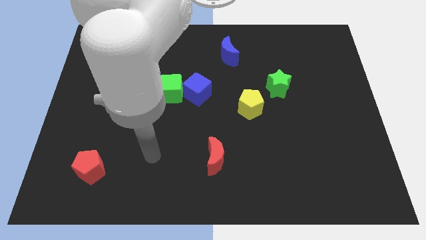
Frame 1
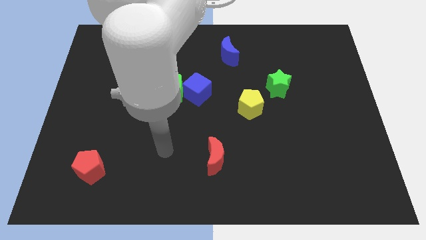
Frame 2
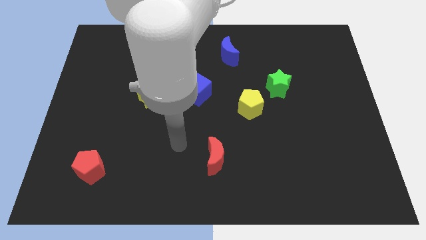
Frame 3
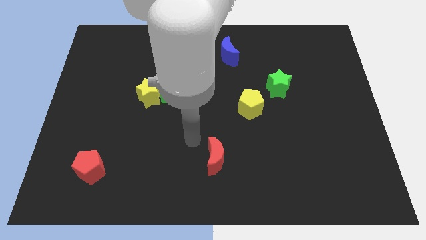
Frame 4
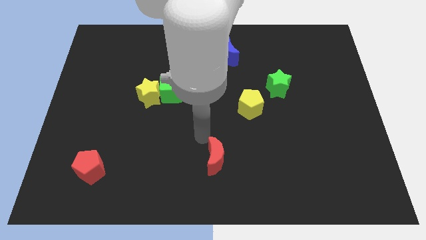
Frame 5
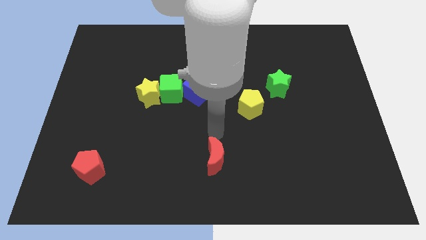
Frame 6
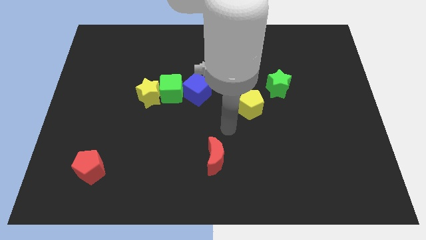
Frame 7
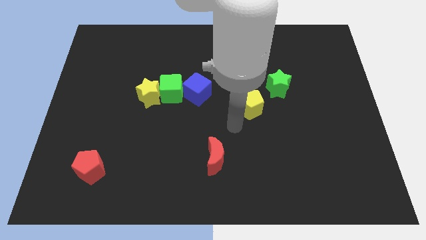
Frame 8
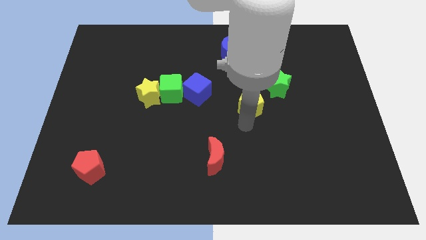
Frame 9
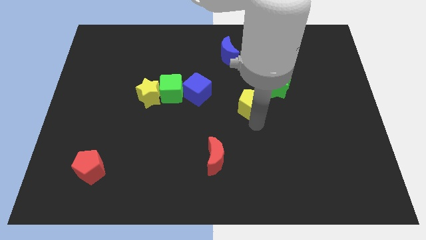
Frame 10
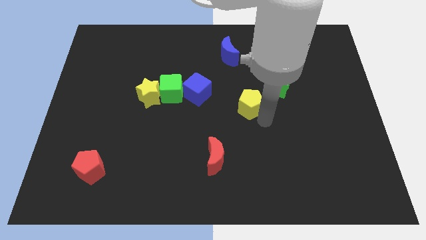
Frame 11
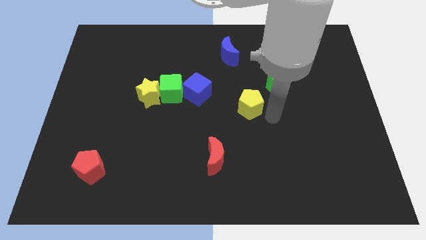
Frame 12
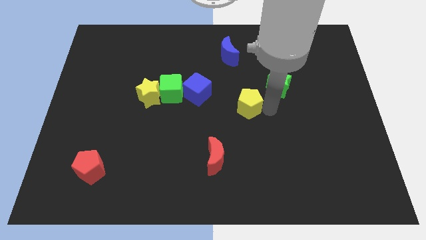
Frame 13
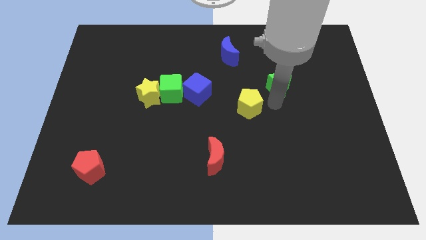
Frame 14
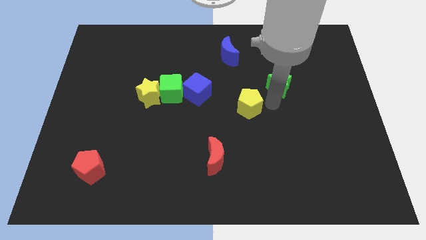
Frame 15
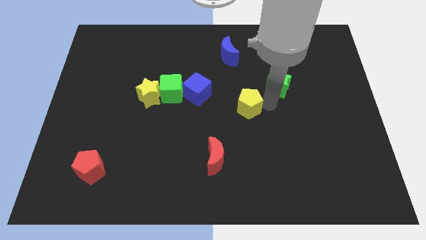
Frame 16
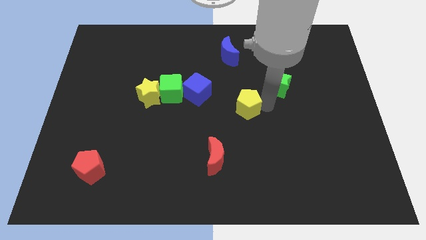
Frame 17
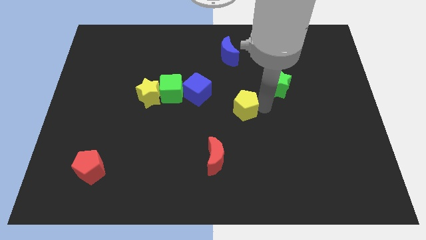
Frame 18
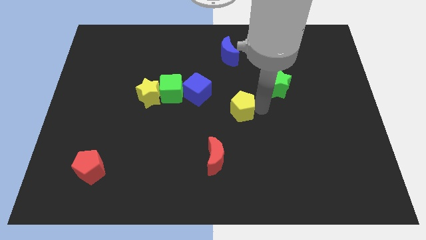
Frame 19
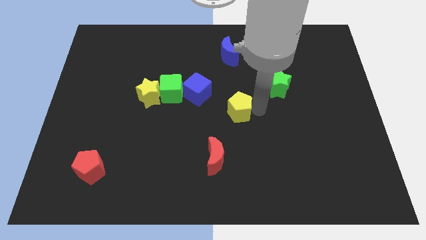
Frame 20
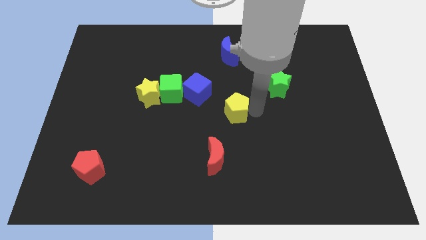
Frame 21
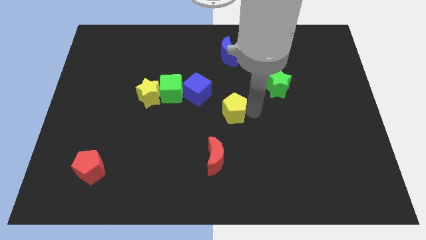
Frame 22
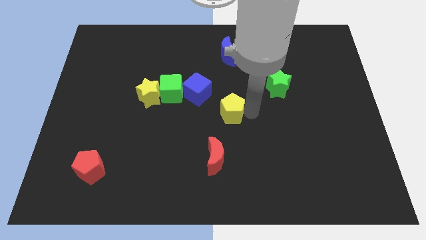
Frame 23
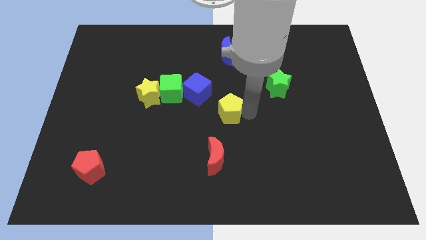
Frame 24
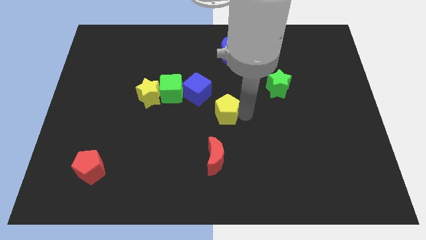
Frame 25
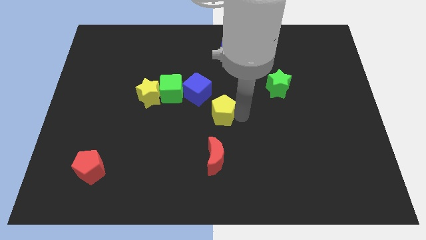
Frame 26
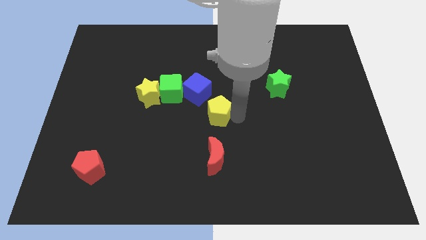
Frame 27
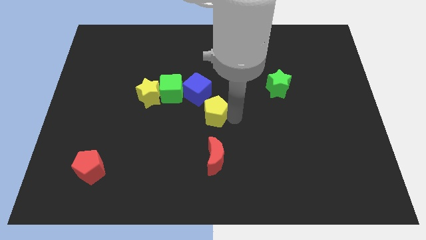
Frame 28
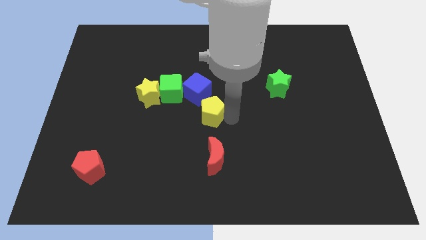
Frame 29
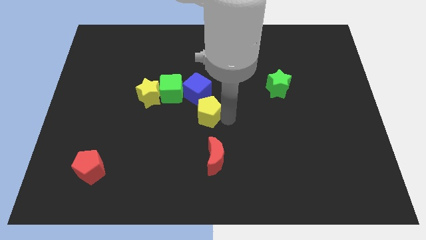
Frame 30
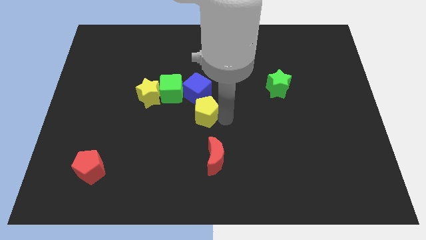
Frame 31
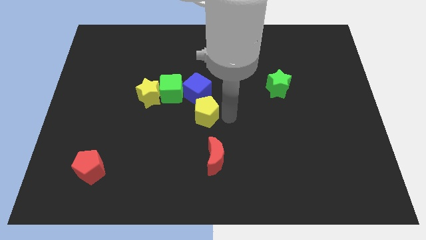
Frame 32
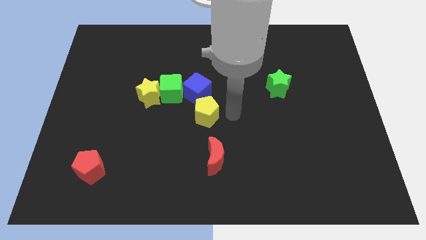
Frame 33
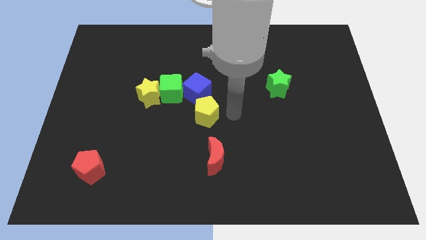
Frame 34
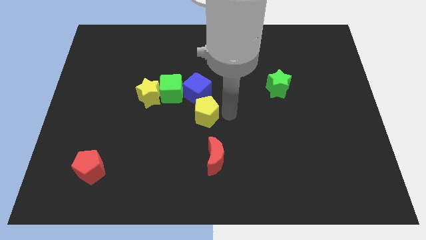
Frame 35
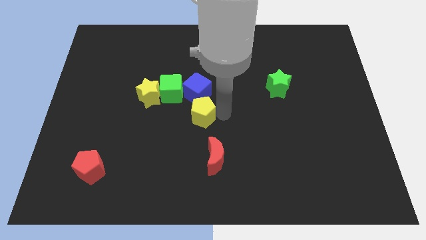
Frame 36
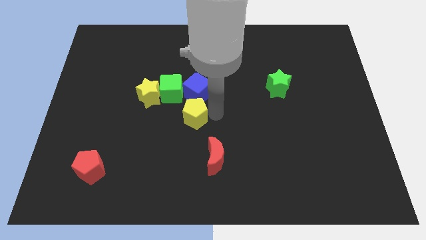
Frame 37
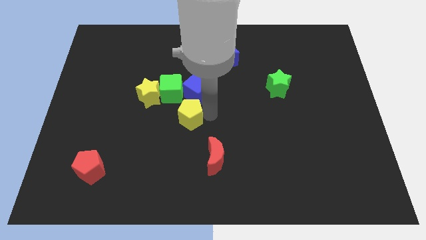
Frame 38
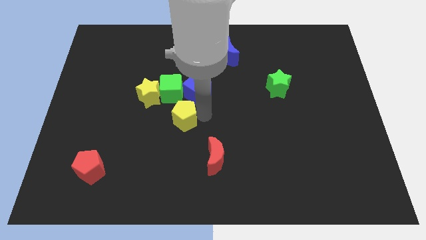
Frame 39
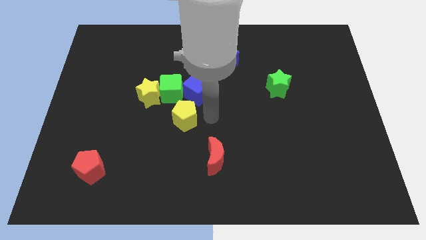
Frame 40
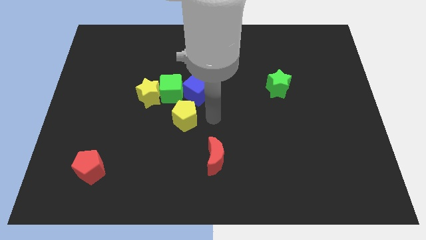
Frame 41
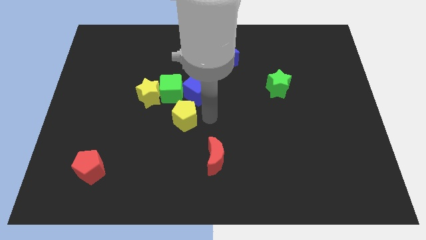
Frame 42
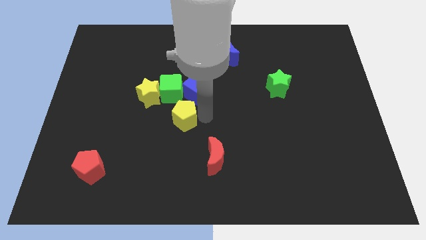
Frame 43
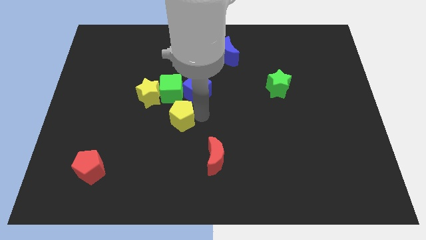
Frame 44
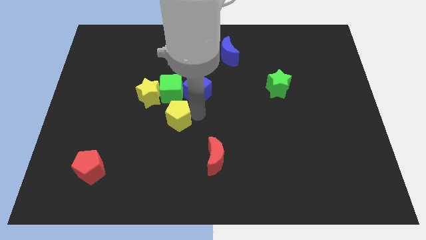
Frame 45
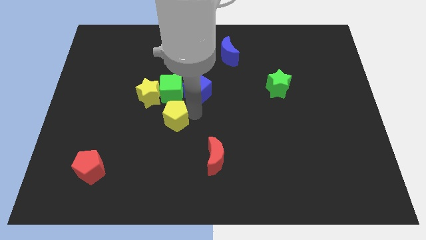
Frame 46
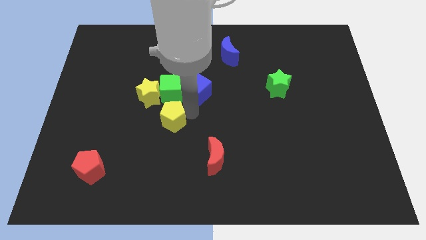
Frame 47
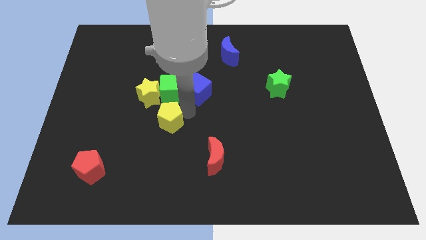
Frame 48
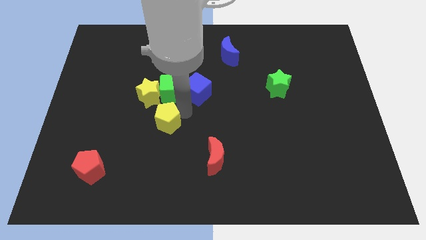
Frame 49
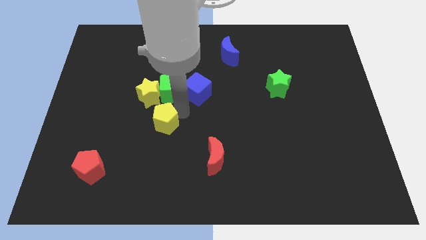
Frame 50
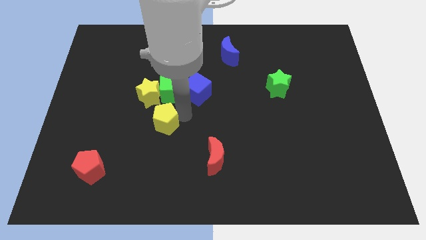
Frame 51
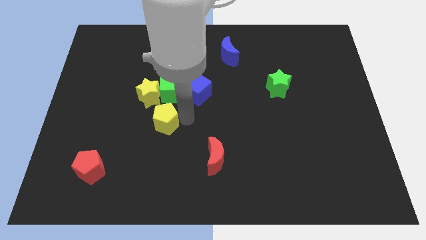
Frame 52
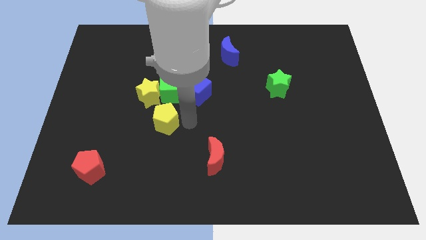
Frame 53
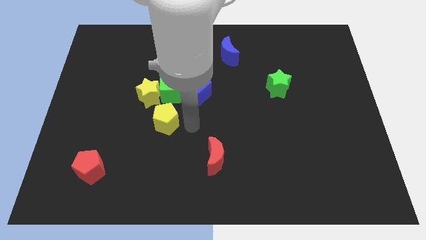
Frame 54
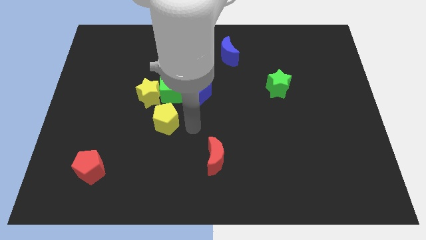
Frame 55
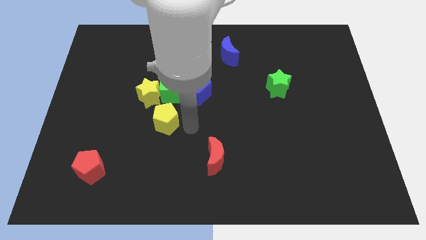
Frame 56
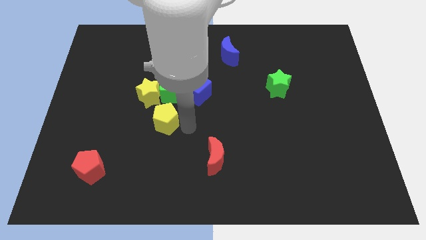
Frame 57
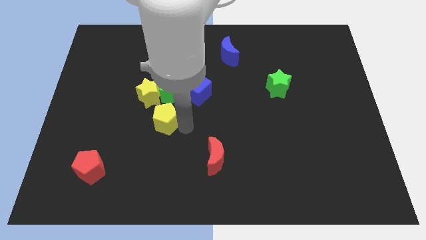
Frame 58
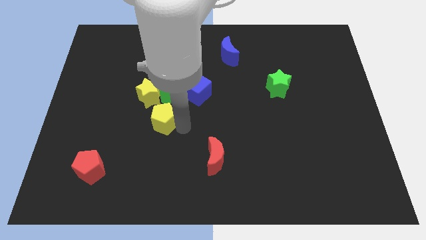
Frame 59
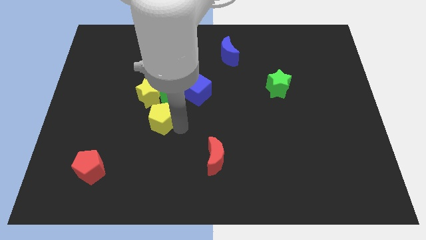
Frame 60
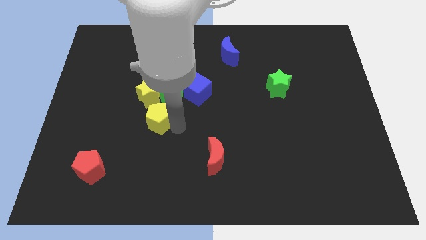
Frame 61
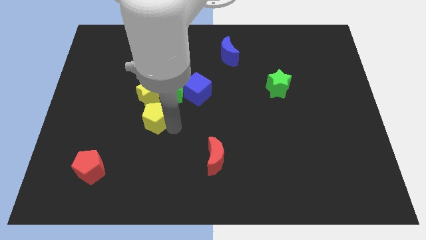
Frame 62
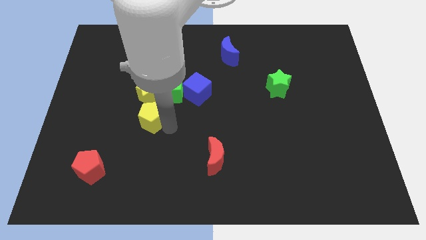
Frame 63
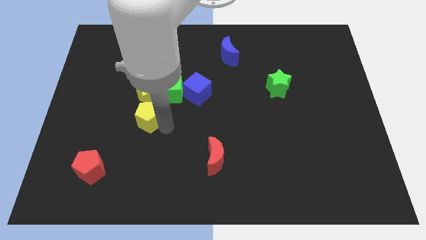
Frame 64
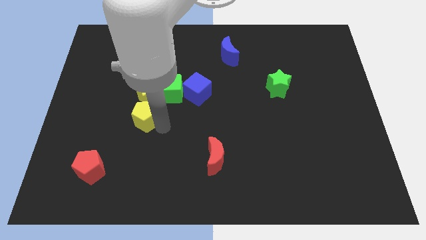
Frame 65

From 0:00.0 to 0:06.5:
move the yellow pentagon to the bottom left side of the yellow star
